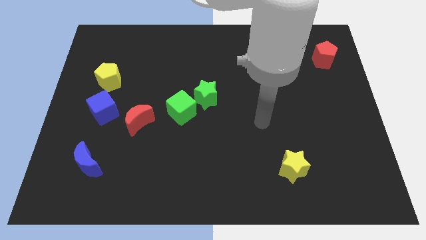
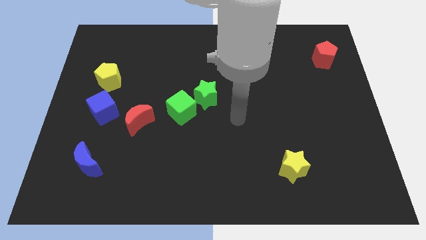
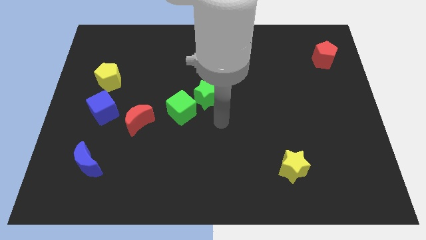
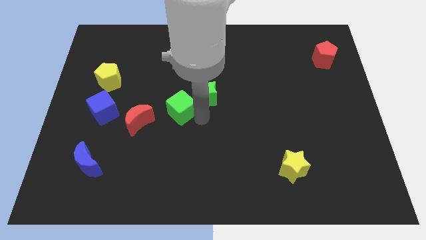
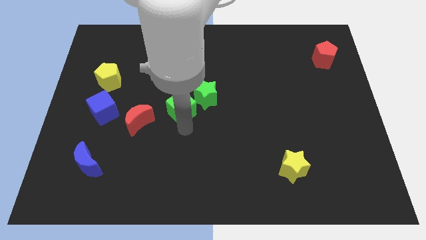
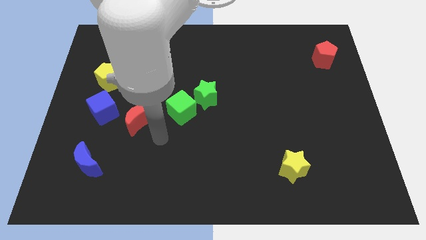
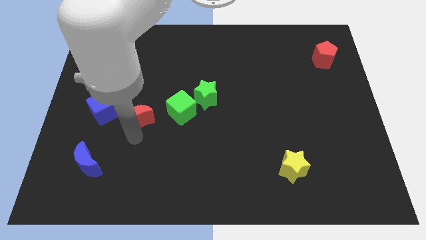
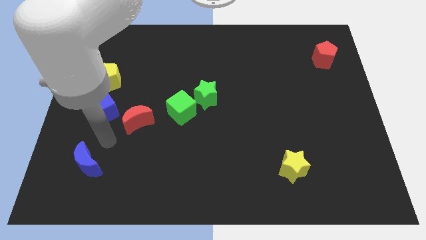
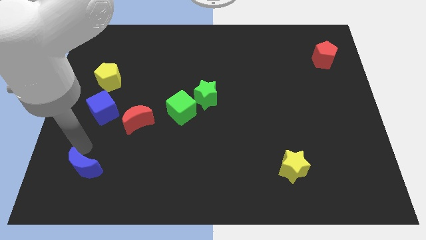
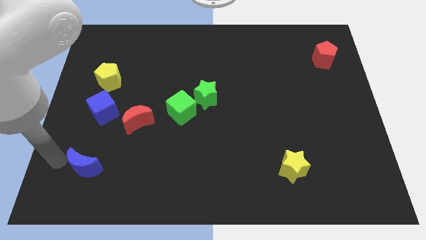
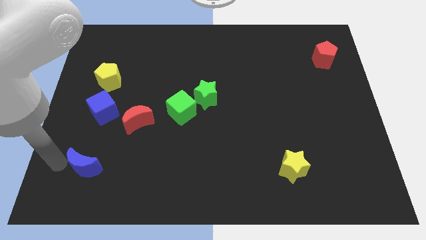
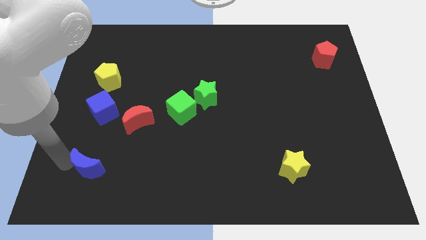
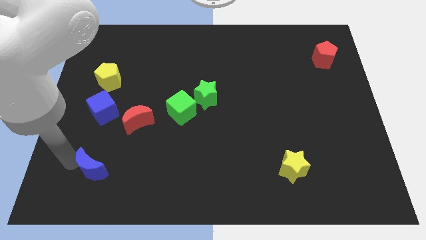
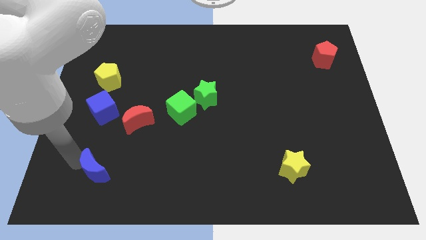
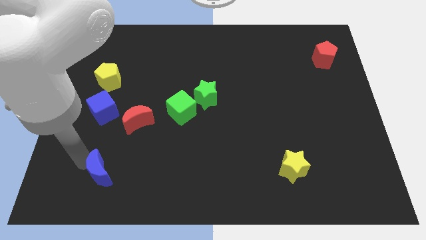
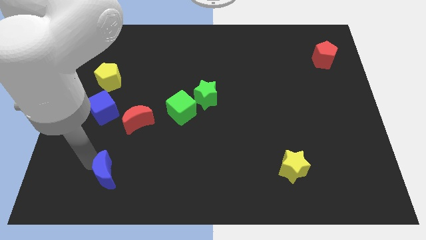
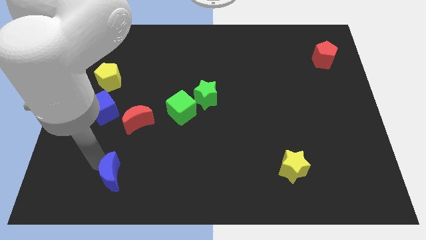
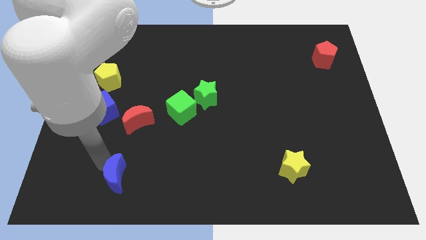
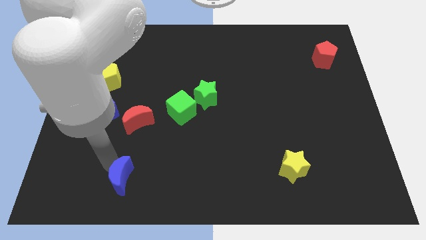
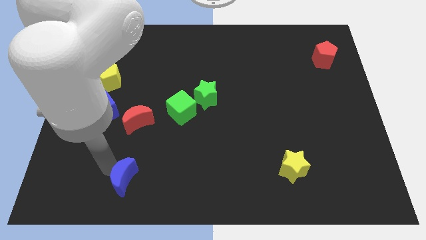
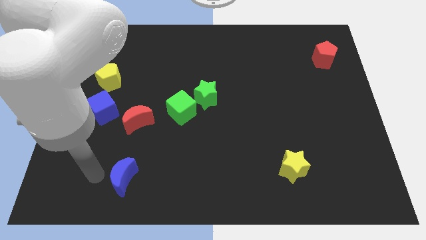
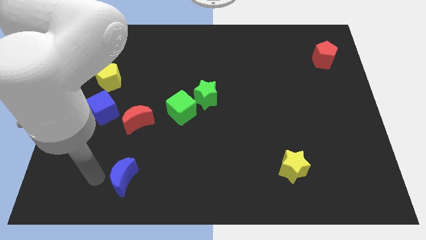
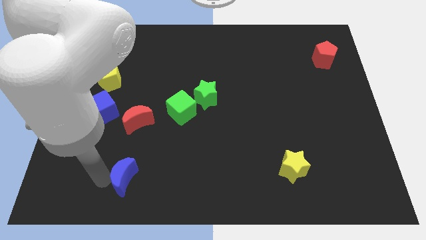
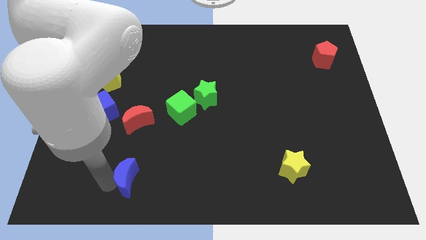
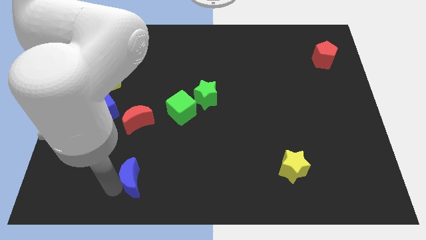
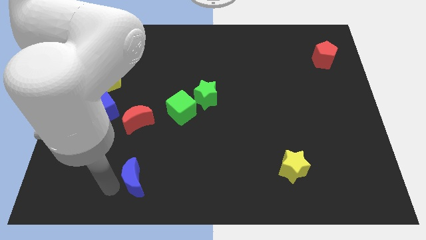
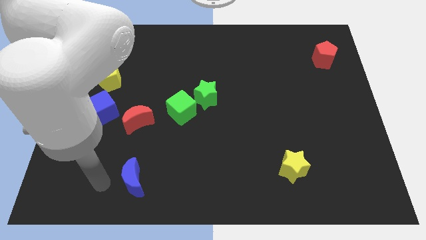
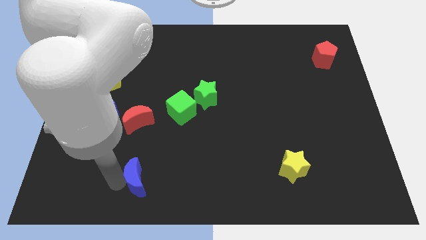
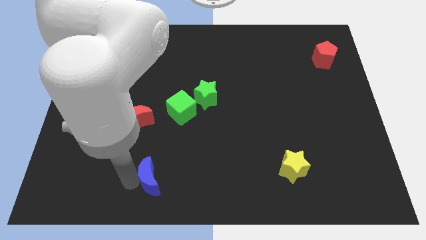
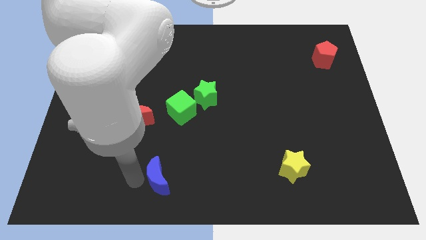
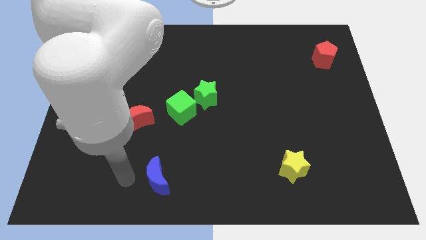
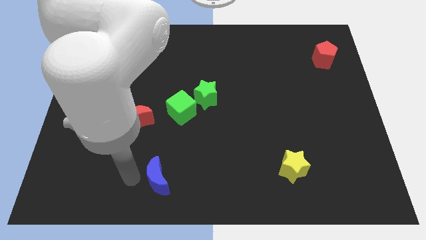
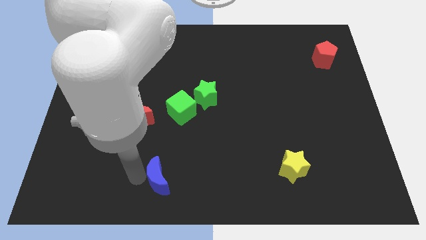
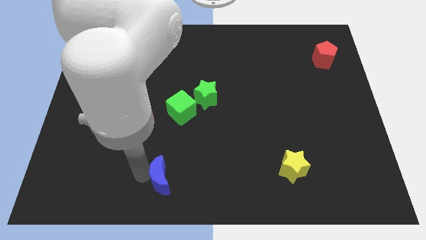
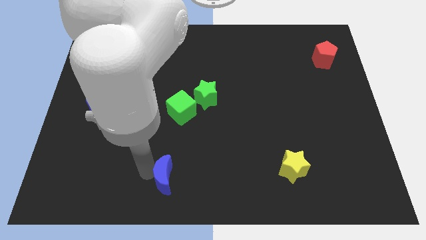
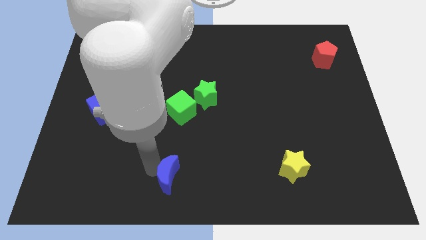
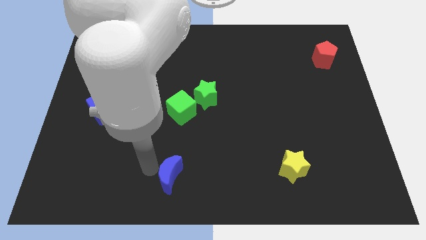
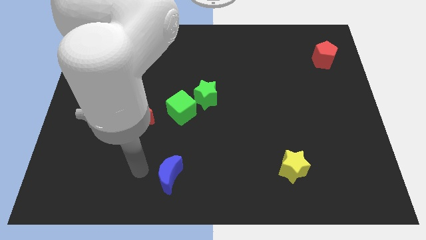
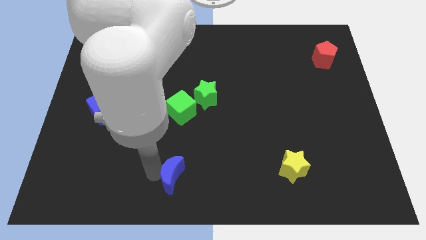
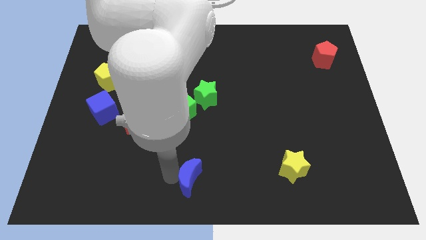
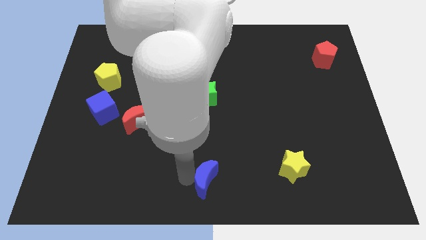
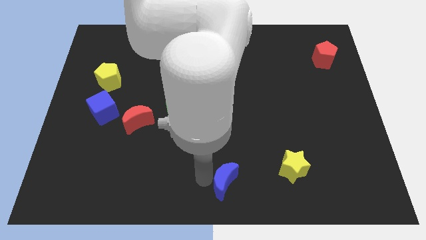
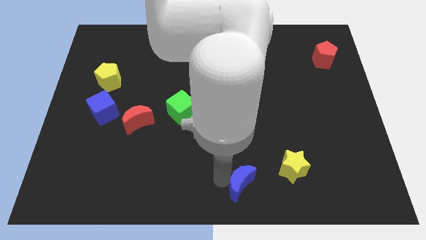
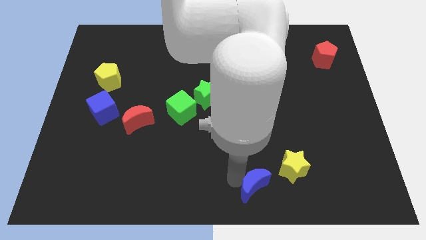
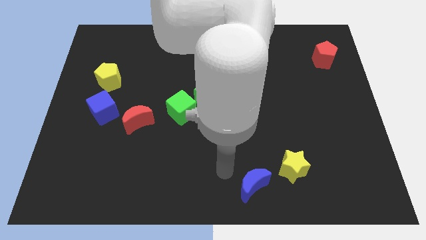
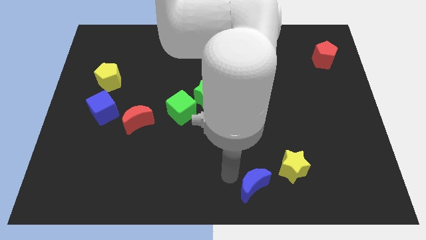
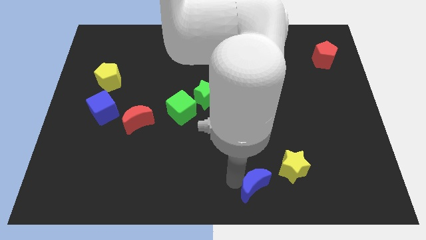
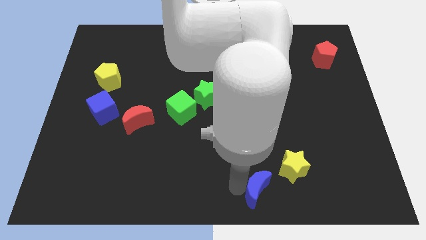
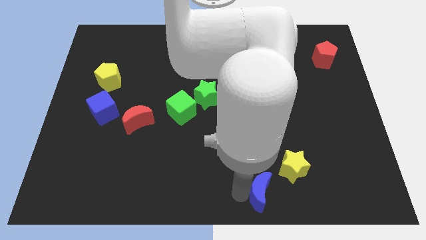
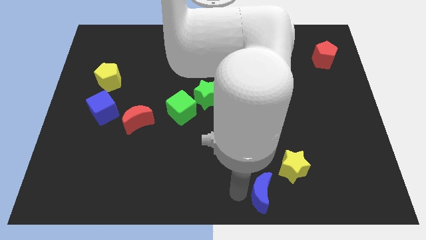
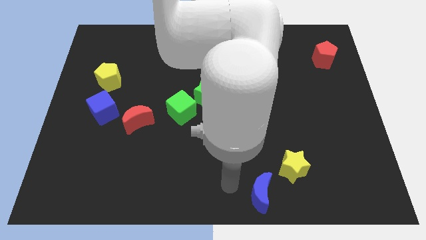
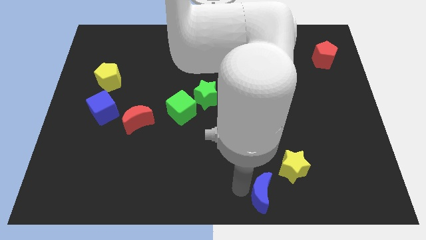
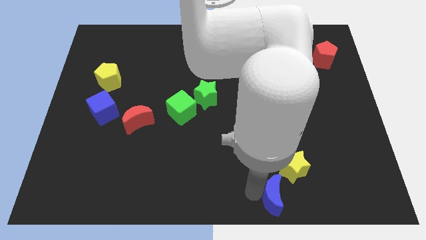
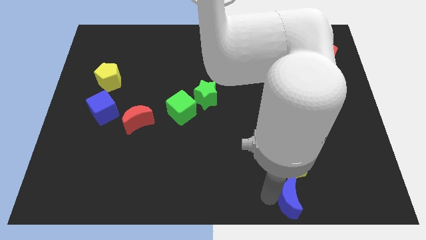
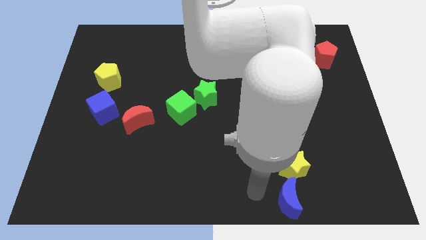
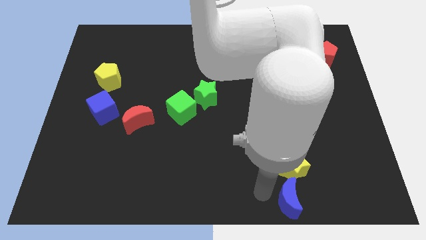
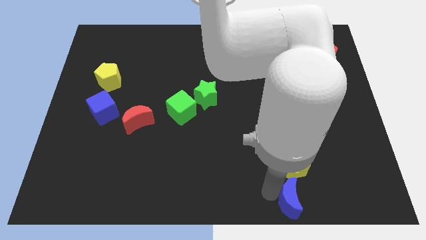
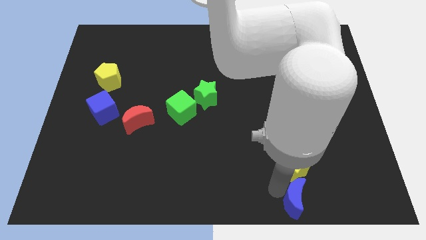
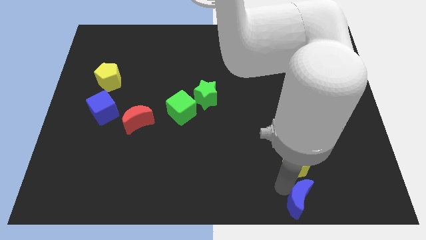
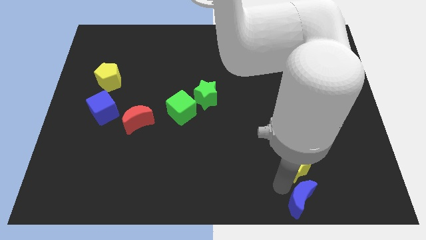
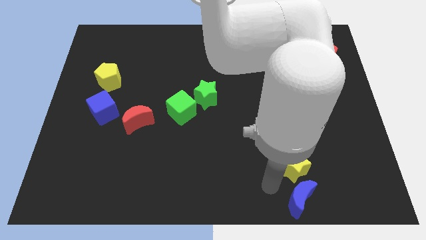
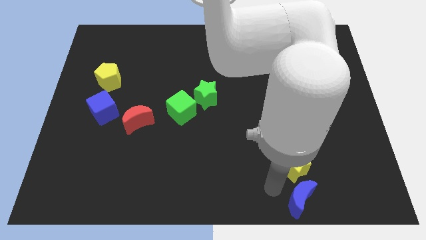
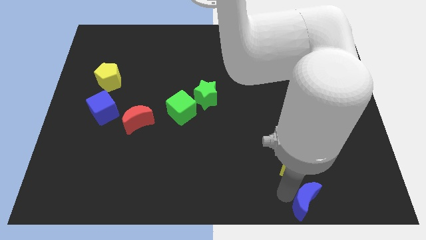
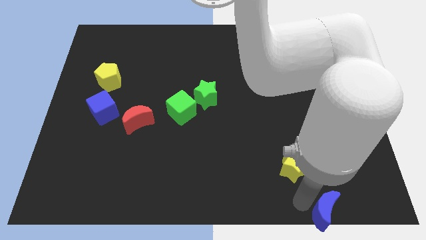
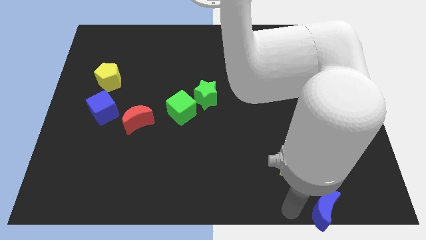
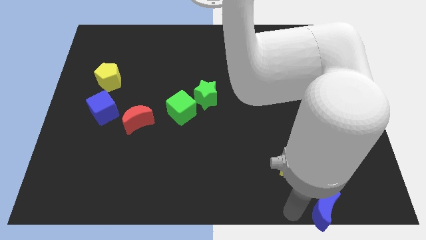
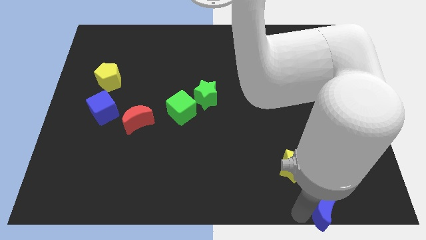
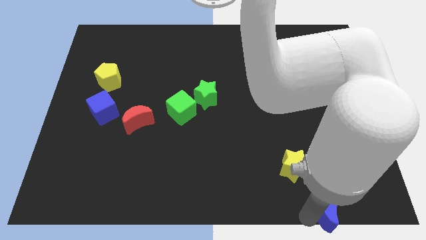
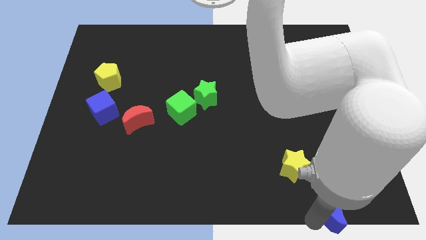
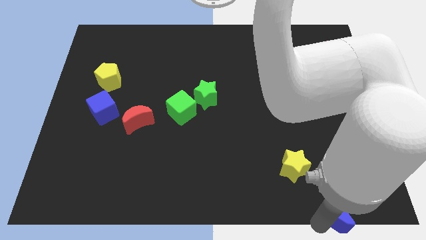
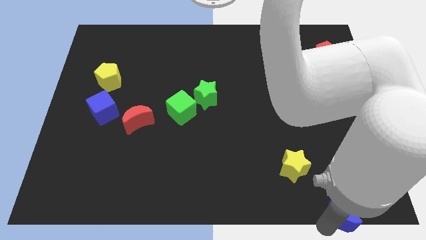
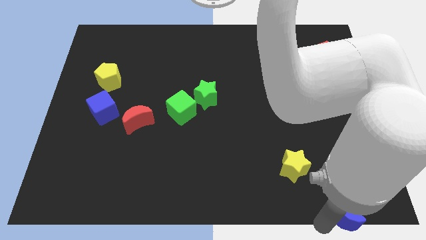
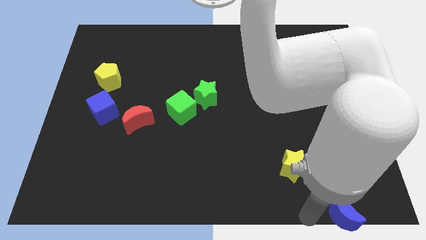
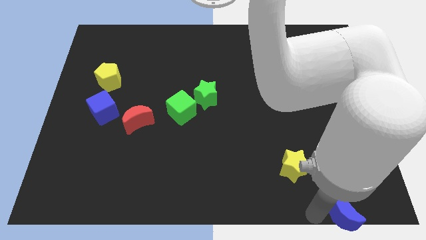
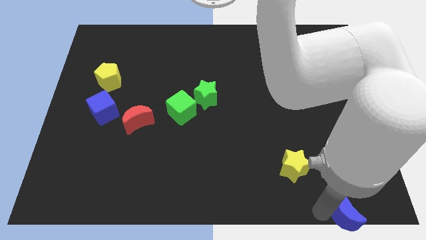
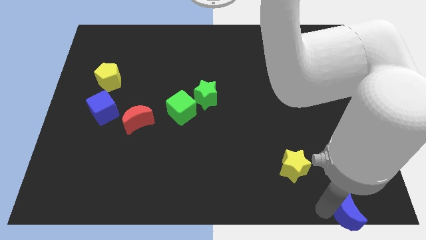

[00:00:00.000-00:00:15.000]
push the blue moon to the lower right corner
